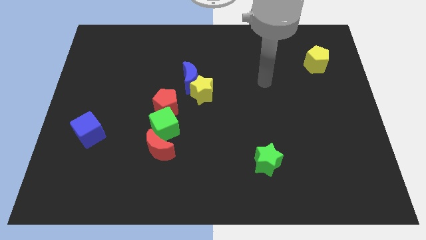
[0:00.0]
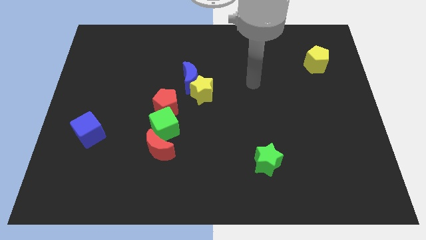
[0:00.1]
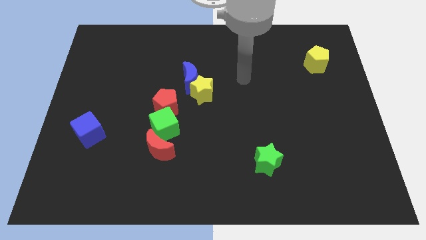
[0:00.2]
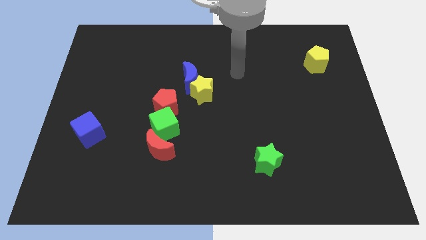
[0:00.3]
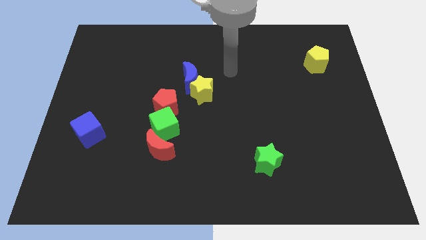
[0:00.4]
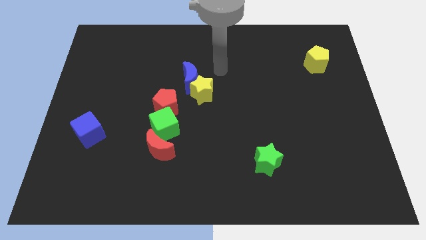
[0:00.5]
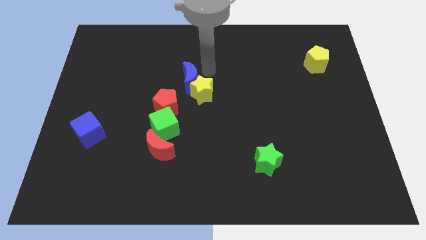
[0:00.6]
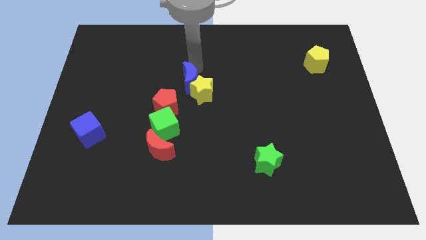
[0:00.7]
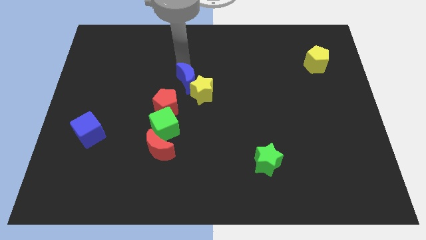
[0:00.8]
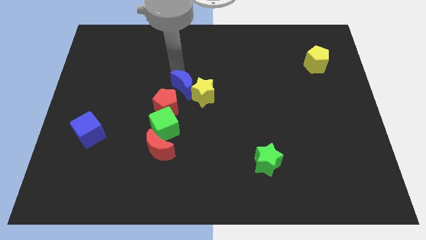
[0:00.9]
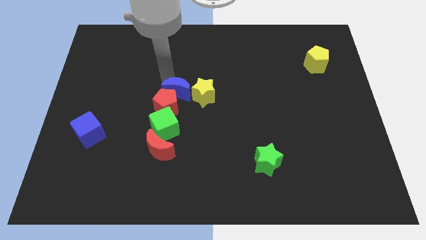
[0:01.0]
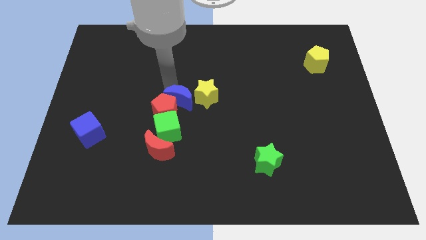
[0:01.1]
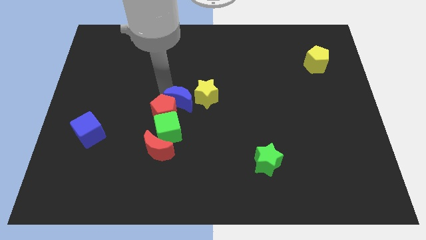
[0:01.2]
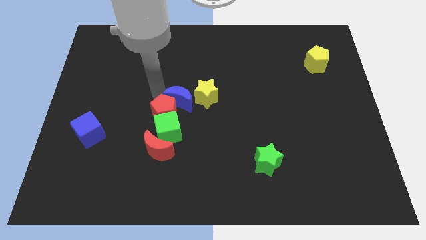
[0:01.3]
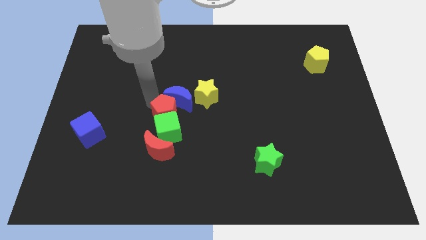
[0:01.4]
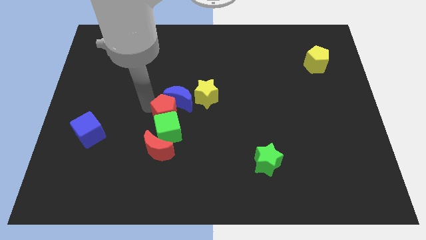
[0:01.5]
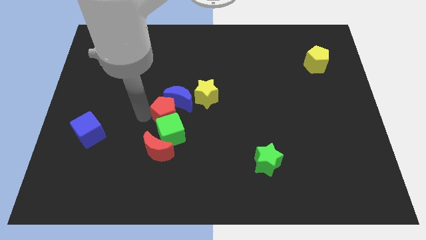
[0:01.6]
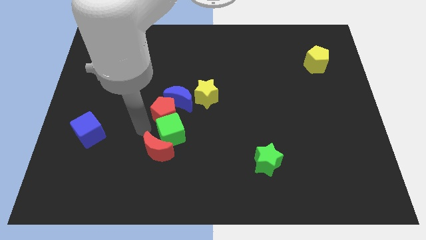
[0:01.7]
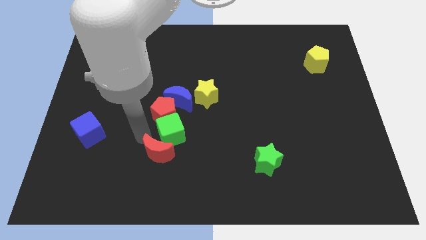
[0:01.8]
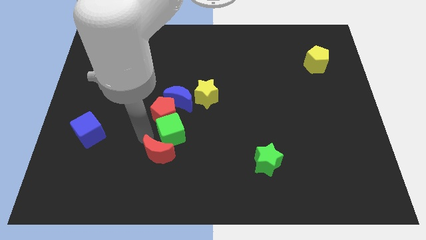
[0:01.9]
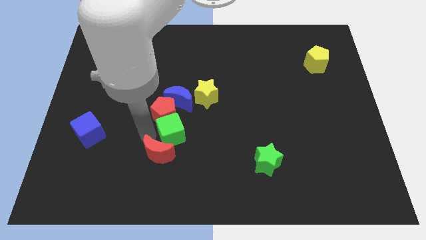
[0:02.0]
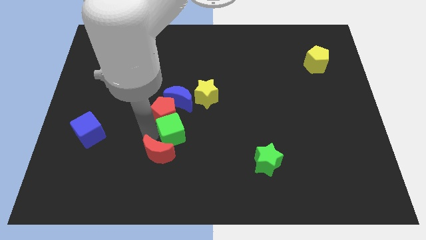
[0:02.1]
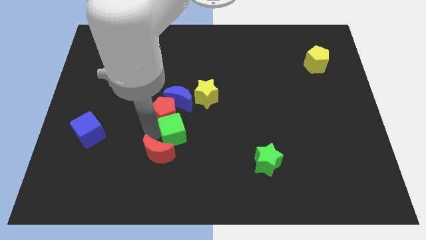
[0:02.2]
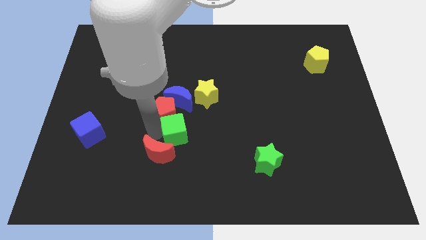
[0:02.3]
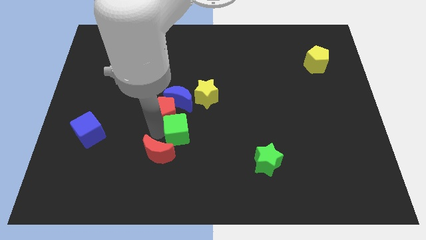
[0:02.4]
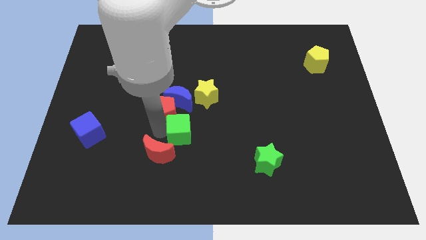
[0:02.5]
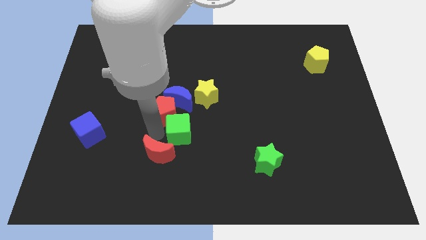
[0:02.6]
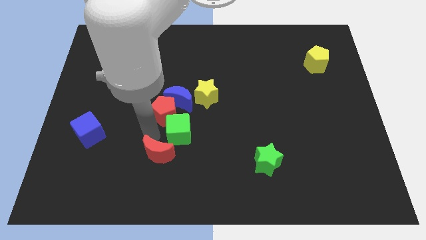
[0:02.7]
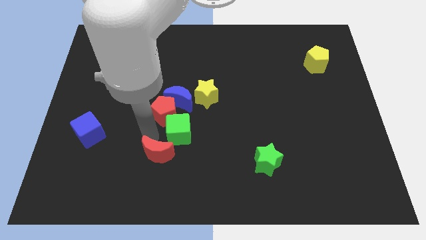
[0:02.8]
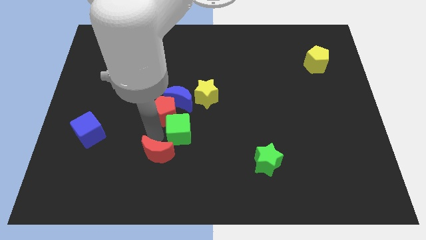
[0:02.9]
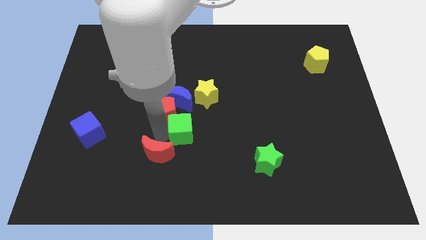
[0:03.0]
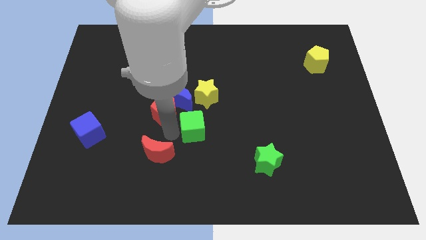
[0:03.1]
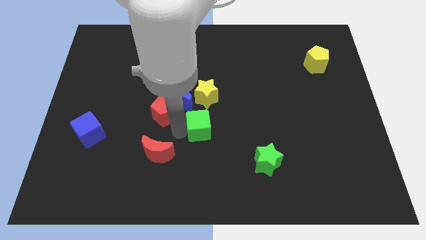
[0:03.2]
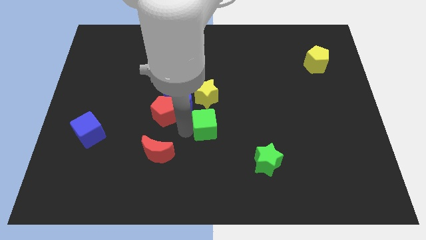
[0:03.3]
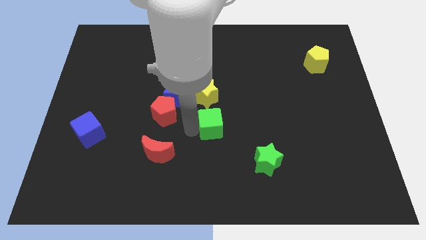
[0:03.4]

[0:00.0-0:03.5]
move the green cube away from the red pentagon and red moon

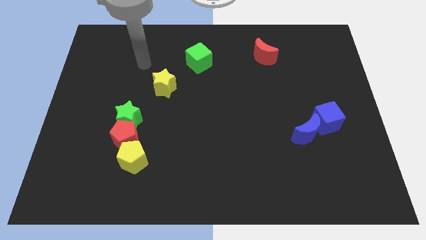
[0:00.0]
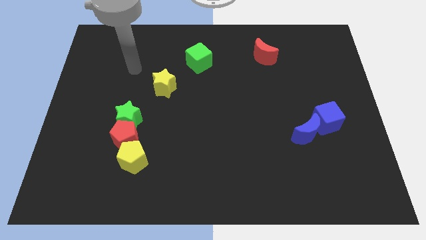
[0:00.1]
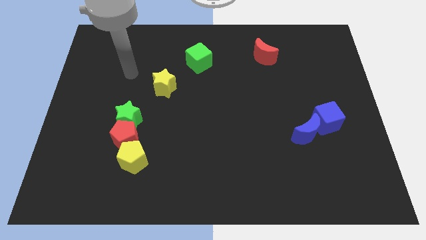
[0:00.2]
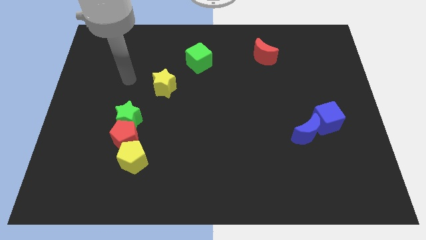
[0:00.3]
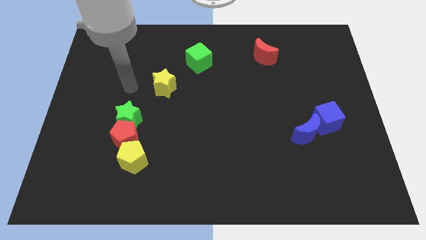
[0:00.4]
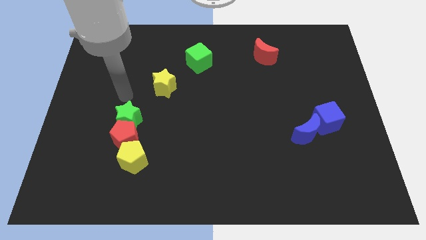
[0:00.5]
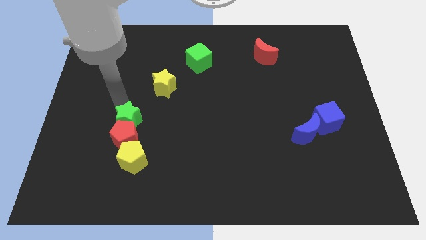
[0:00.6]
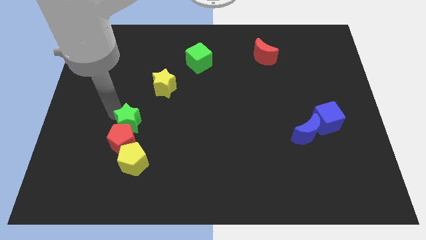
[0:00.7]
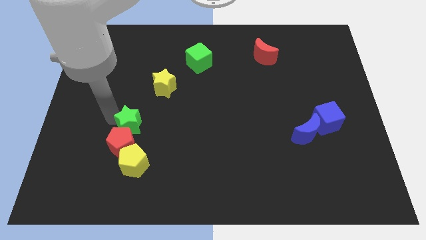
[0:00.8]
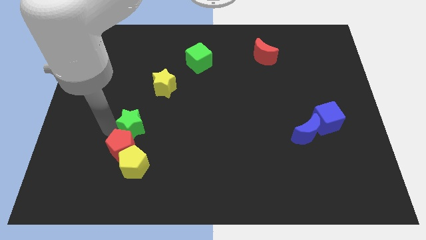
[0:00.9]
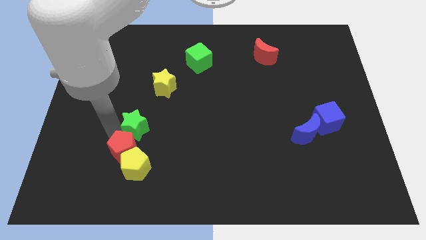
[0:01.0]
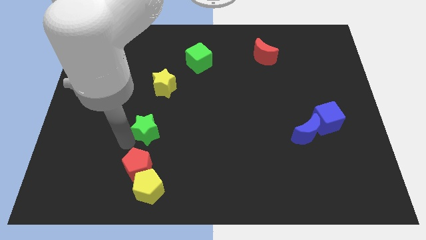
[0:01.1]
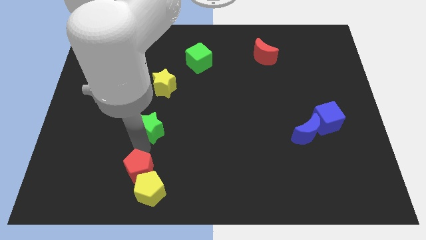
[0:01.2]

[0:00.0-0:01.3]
separate the green star from the red pentagon

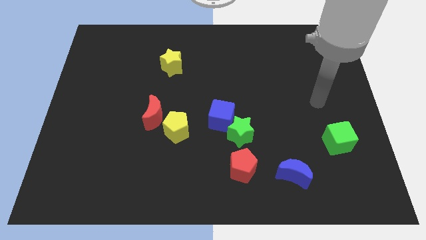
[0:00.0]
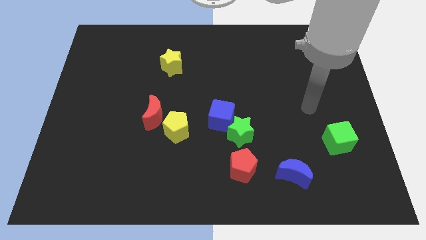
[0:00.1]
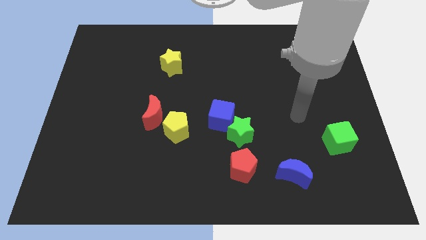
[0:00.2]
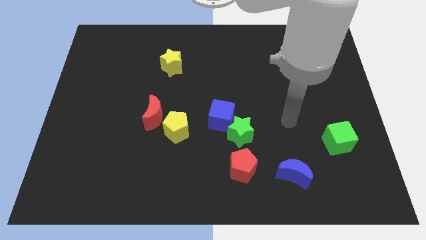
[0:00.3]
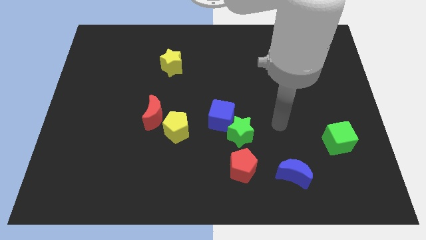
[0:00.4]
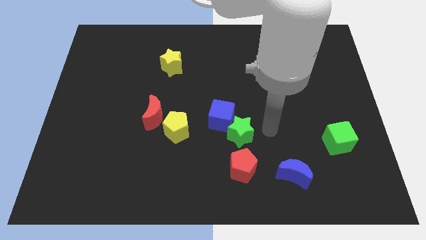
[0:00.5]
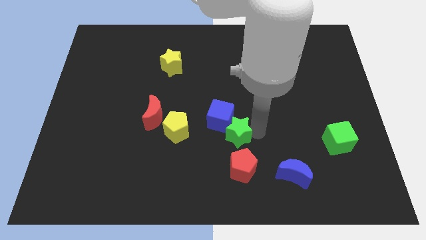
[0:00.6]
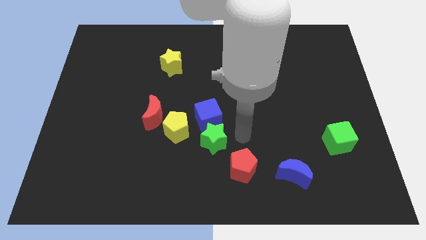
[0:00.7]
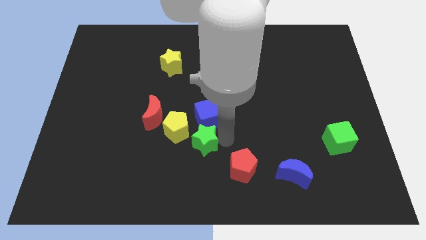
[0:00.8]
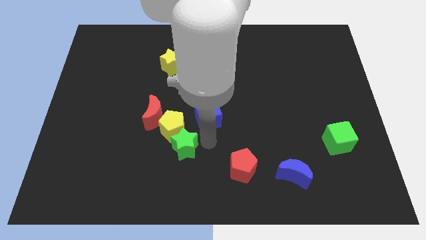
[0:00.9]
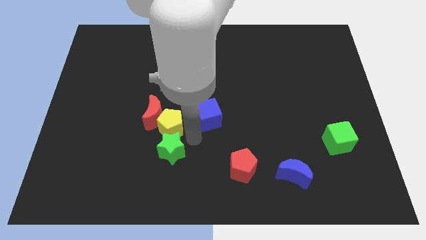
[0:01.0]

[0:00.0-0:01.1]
move the blue cube away from the green star

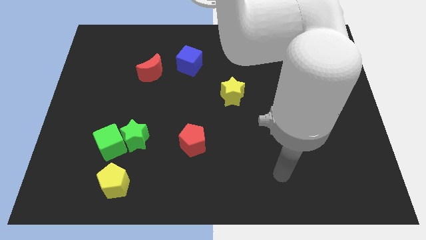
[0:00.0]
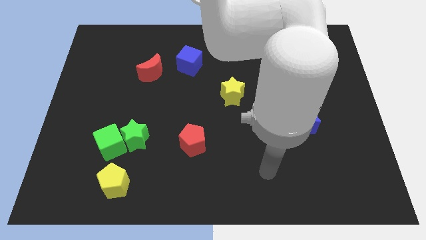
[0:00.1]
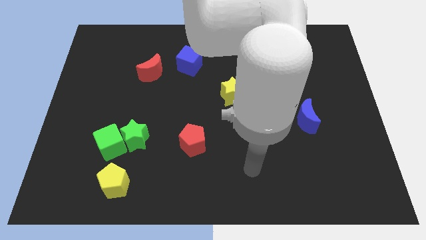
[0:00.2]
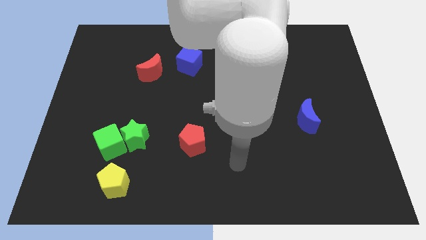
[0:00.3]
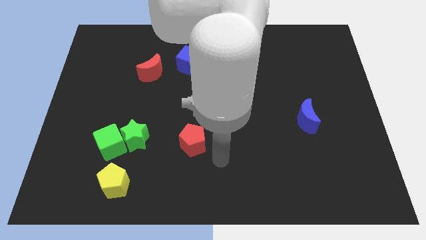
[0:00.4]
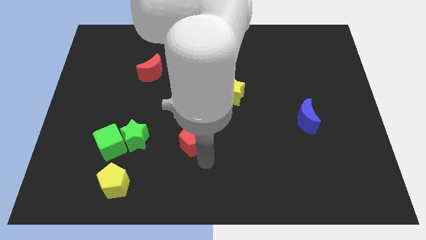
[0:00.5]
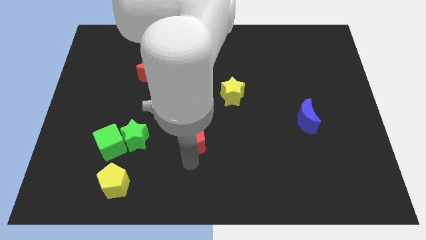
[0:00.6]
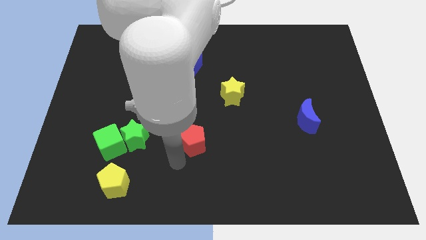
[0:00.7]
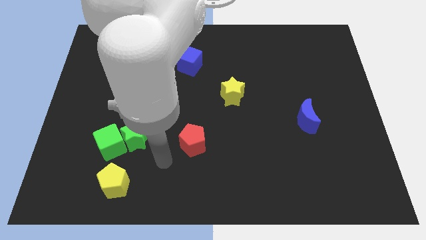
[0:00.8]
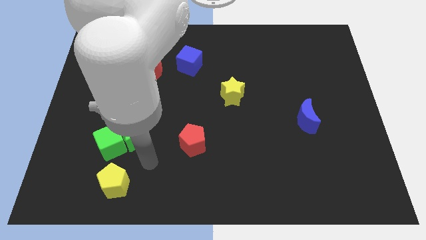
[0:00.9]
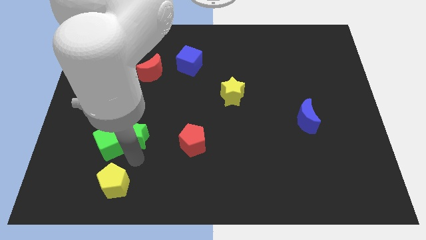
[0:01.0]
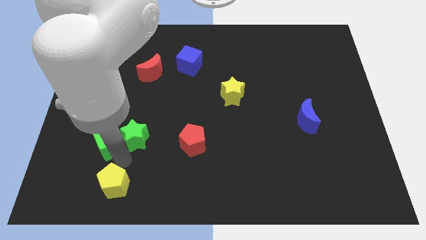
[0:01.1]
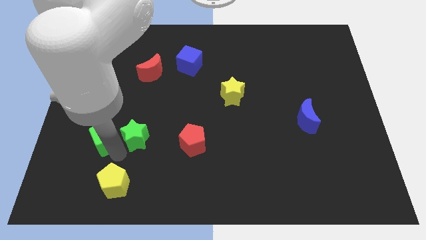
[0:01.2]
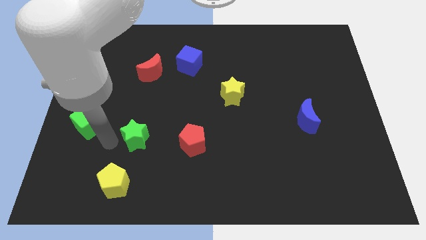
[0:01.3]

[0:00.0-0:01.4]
separate the green star from the green cube

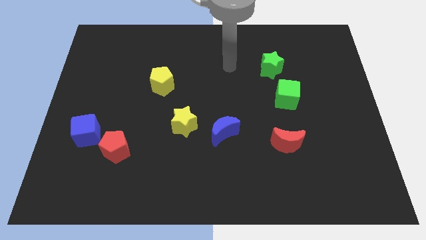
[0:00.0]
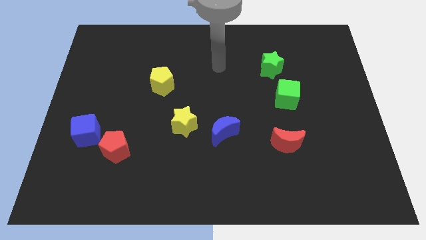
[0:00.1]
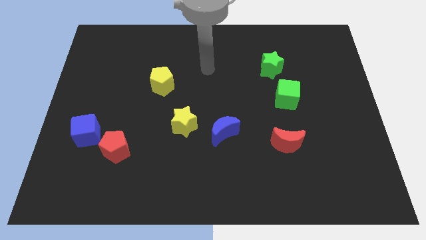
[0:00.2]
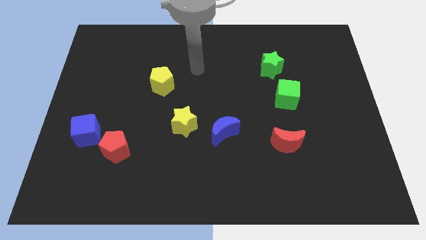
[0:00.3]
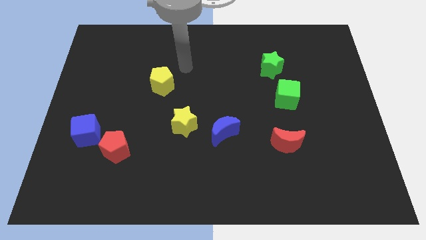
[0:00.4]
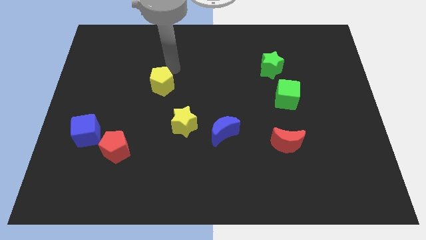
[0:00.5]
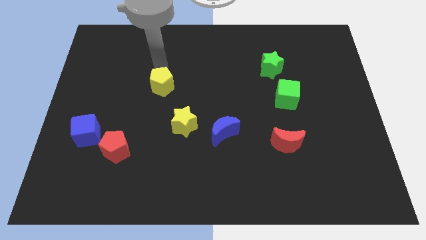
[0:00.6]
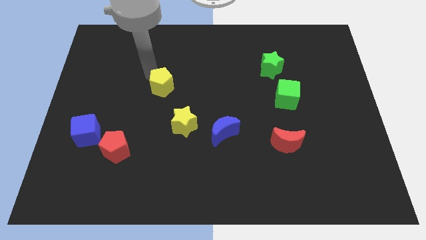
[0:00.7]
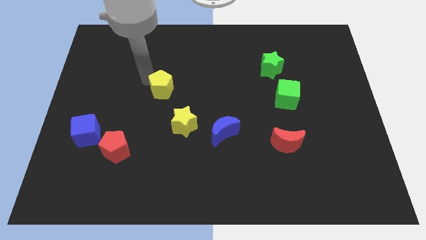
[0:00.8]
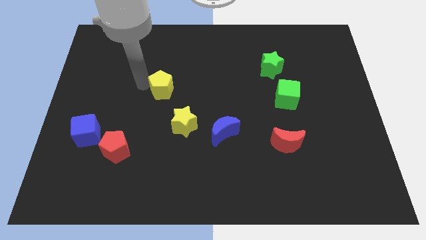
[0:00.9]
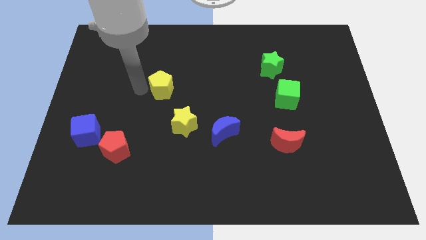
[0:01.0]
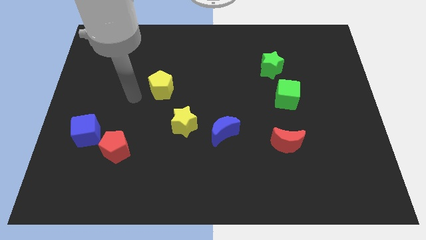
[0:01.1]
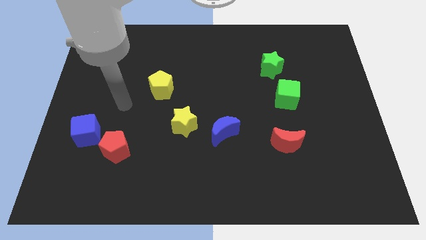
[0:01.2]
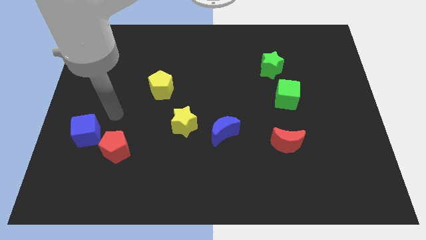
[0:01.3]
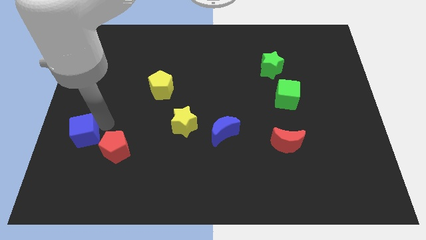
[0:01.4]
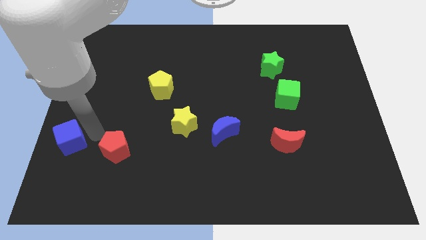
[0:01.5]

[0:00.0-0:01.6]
move the red pentagon away from the blue cube

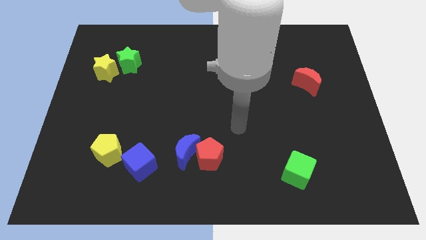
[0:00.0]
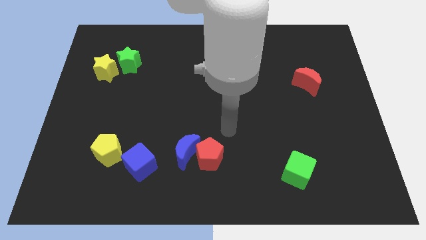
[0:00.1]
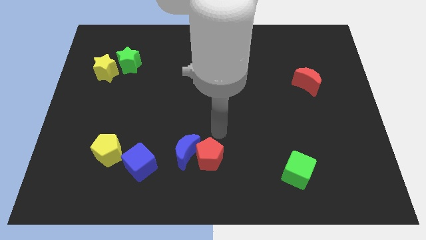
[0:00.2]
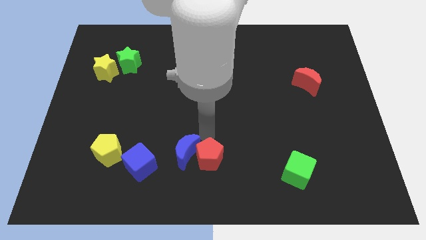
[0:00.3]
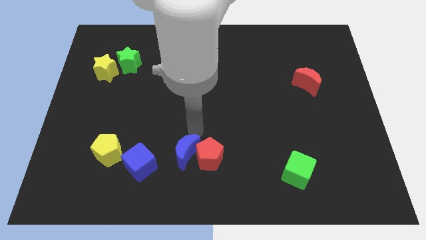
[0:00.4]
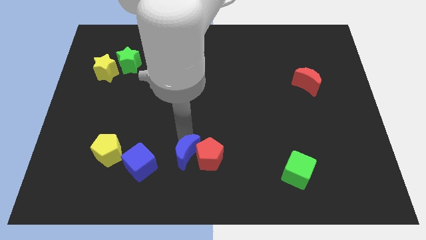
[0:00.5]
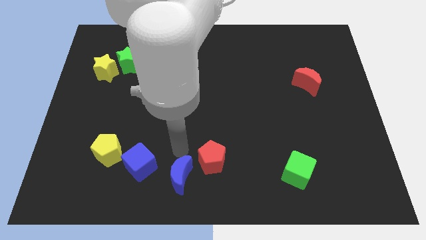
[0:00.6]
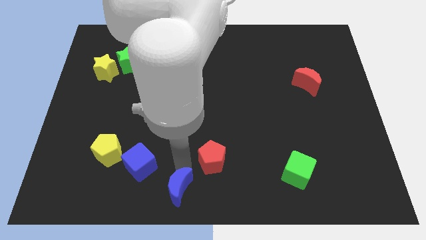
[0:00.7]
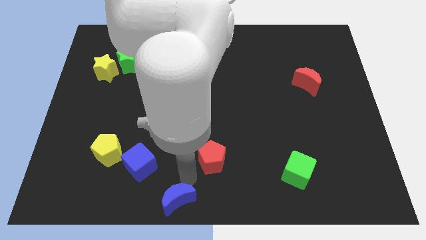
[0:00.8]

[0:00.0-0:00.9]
separate the red pentagon from the blue moon
